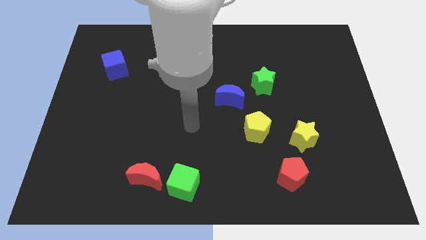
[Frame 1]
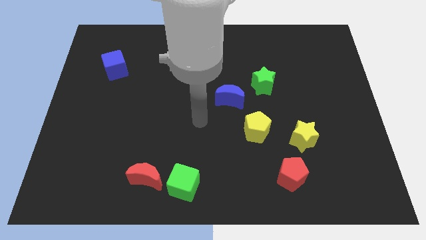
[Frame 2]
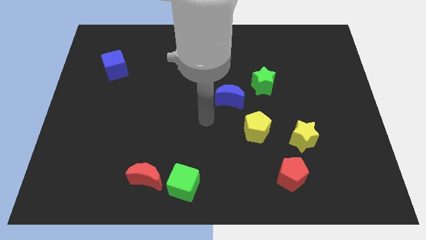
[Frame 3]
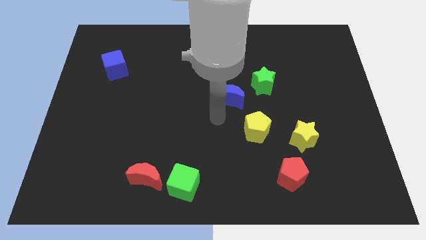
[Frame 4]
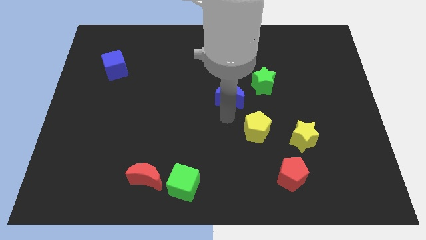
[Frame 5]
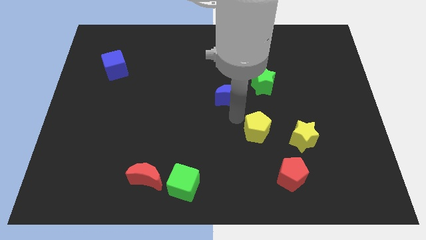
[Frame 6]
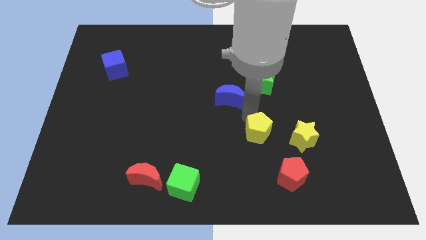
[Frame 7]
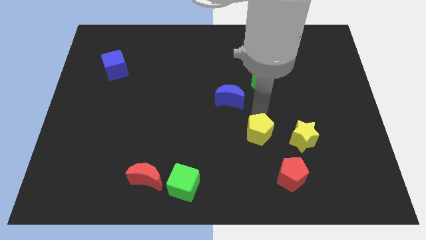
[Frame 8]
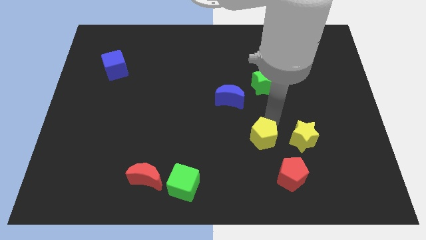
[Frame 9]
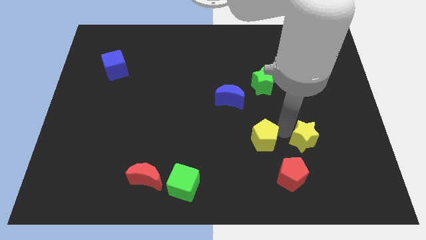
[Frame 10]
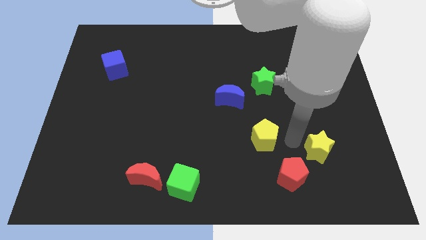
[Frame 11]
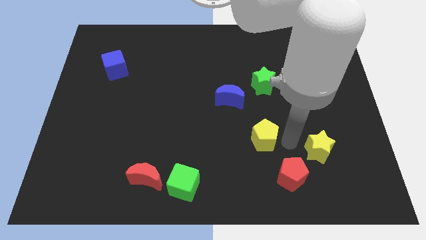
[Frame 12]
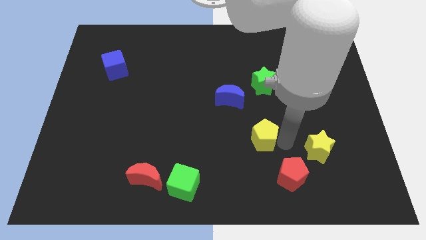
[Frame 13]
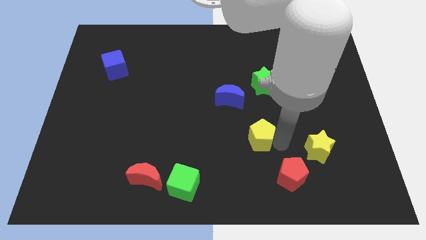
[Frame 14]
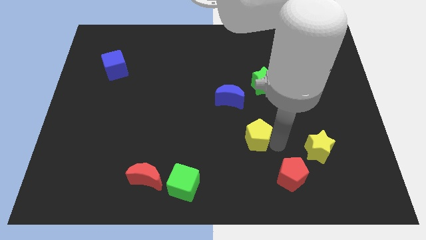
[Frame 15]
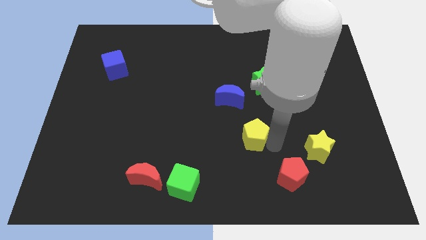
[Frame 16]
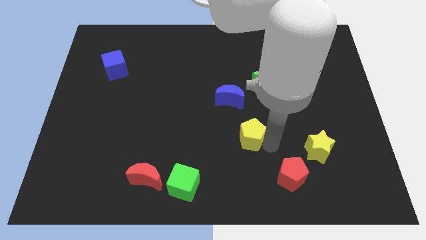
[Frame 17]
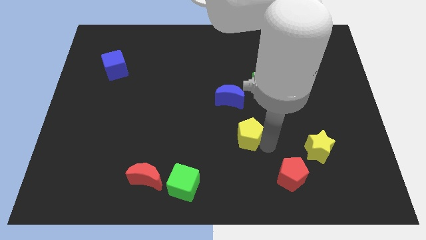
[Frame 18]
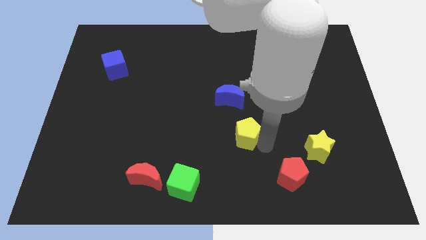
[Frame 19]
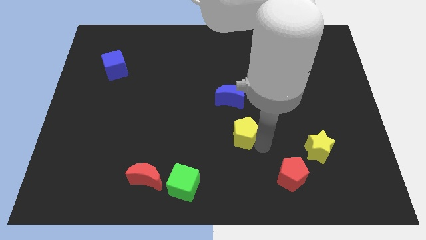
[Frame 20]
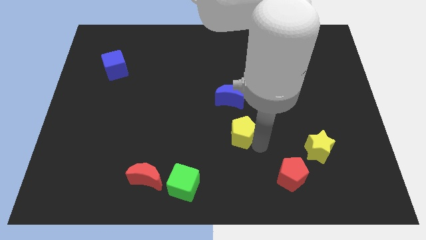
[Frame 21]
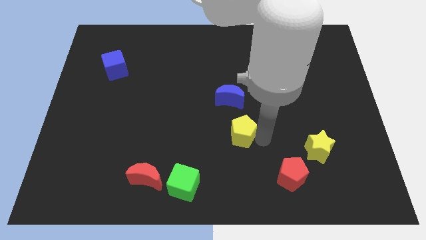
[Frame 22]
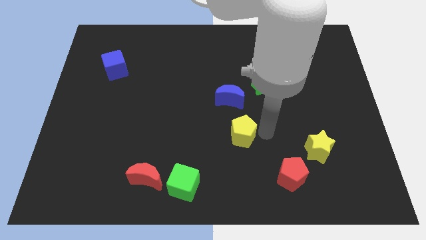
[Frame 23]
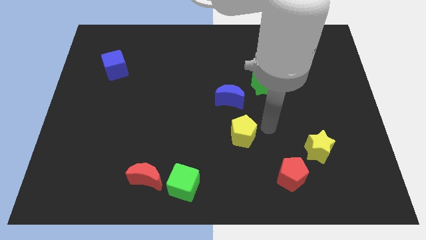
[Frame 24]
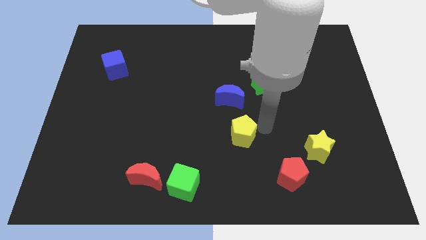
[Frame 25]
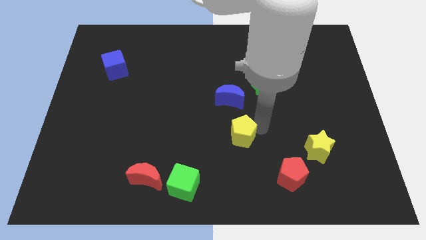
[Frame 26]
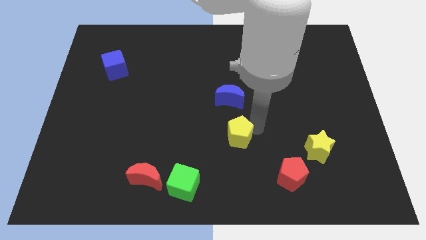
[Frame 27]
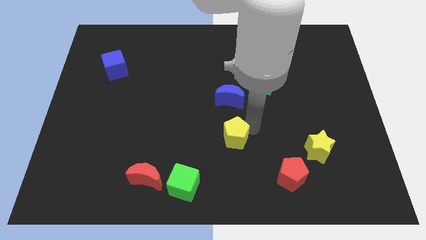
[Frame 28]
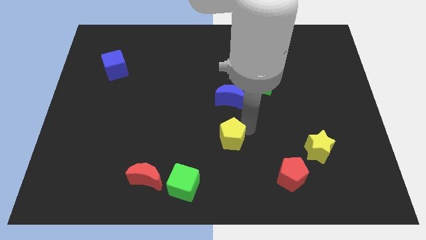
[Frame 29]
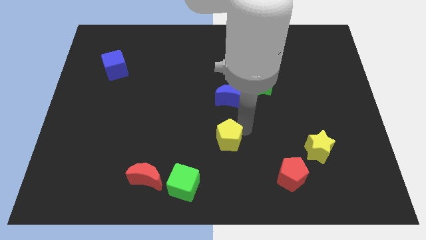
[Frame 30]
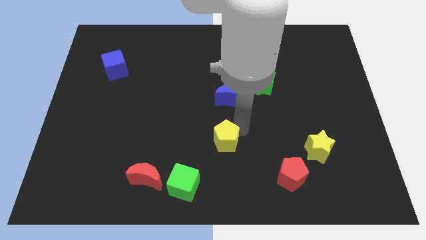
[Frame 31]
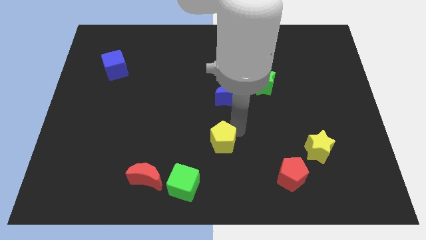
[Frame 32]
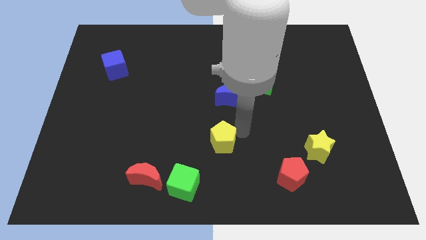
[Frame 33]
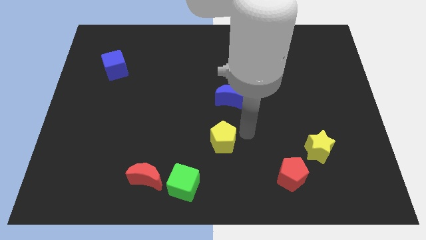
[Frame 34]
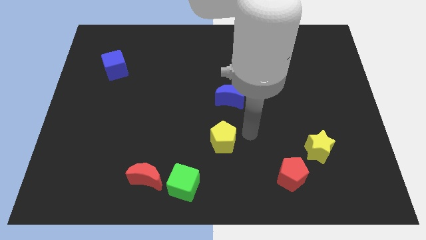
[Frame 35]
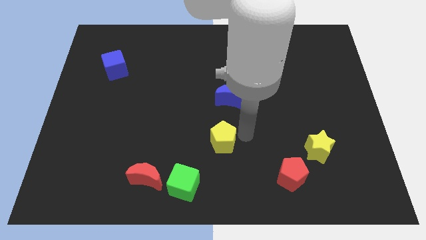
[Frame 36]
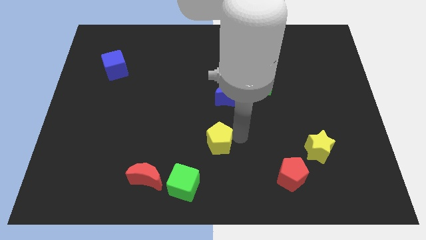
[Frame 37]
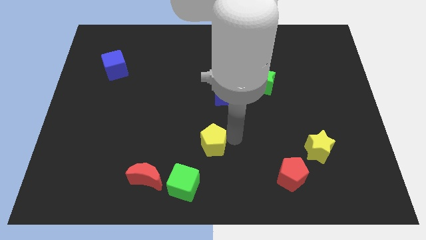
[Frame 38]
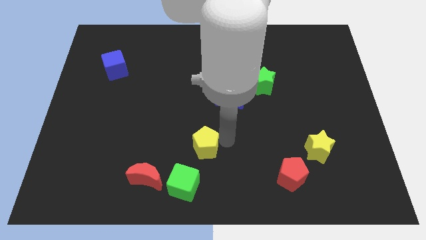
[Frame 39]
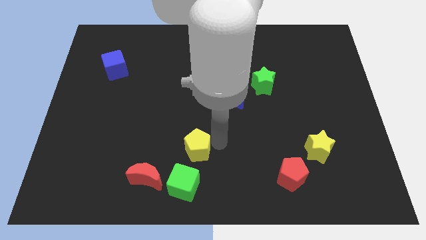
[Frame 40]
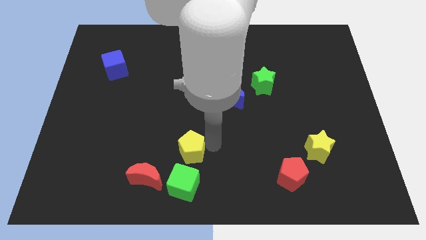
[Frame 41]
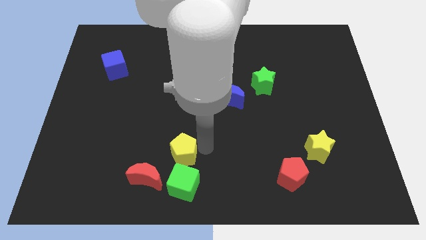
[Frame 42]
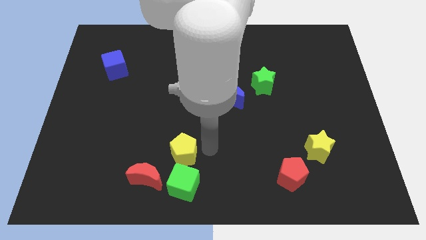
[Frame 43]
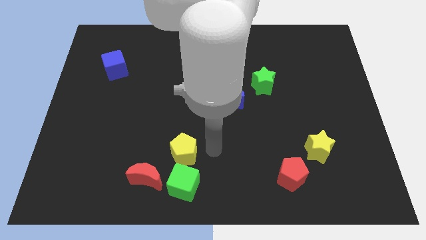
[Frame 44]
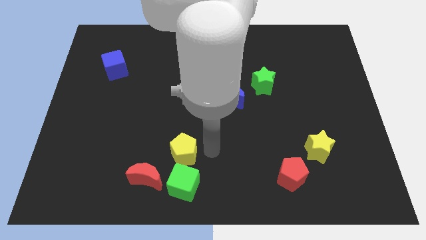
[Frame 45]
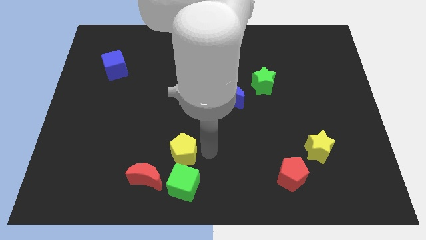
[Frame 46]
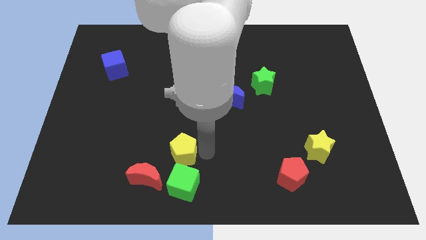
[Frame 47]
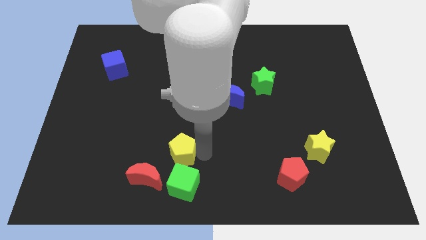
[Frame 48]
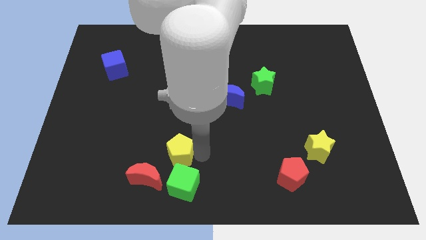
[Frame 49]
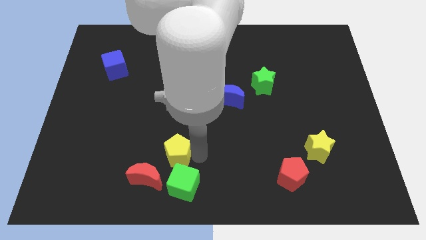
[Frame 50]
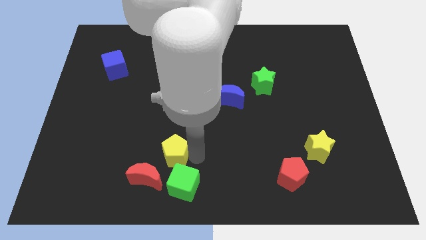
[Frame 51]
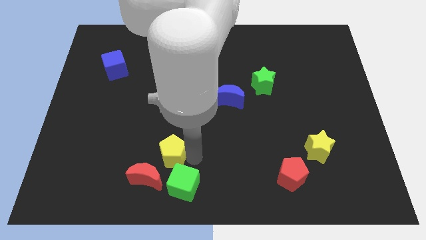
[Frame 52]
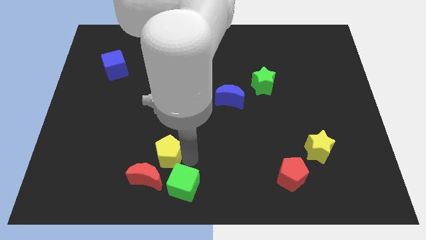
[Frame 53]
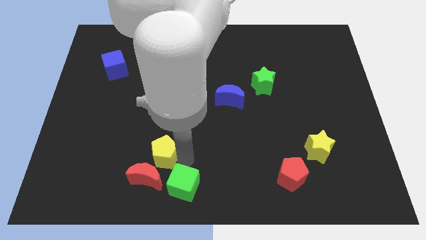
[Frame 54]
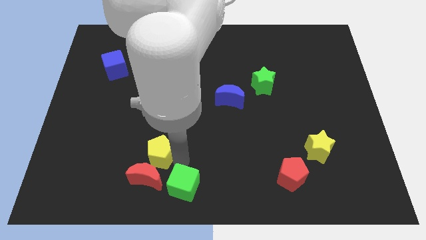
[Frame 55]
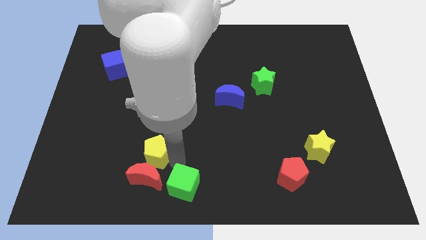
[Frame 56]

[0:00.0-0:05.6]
move the yellow pentagon to the top left of the red moon

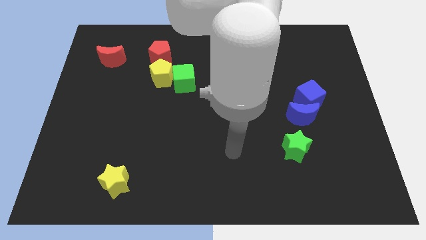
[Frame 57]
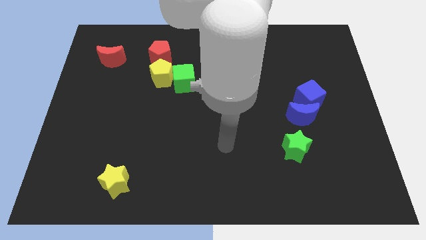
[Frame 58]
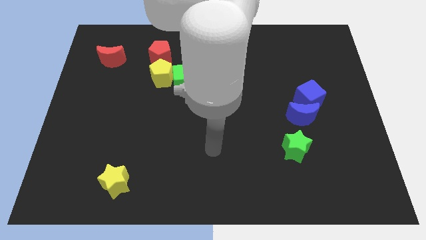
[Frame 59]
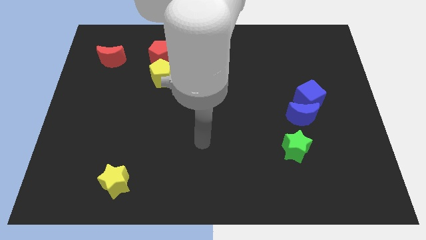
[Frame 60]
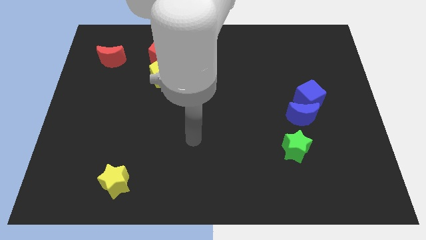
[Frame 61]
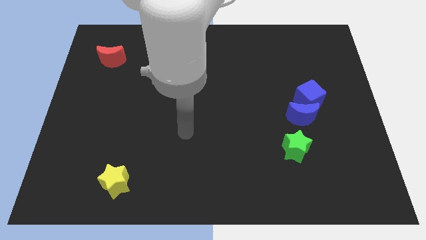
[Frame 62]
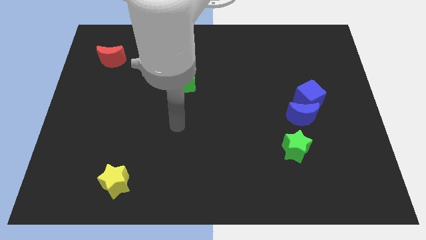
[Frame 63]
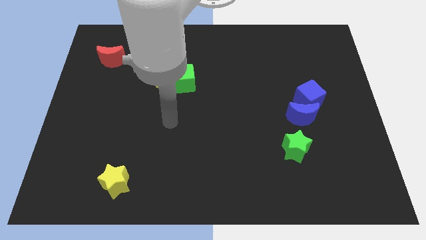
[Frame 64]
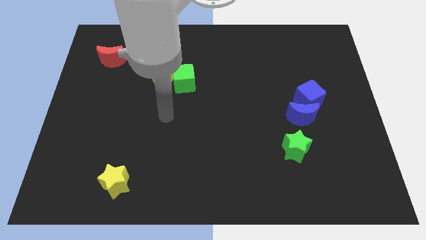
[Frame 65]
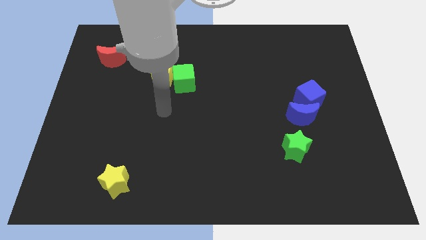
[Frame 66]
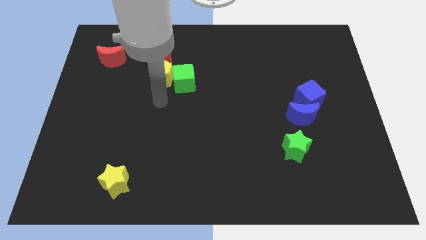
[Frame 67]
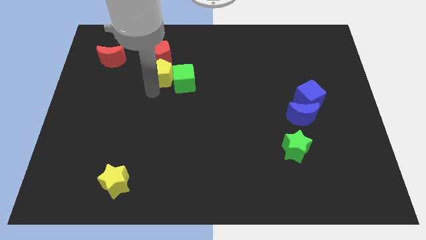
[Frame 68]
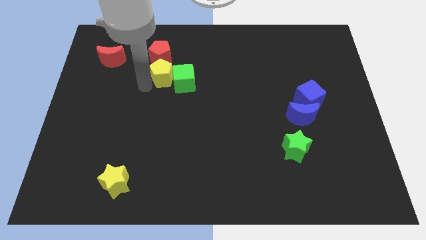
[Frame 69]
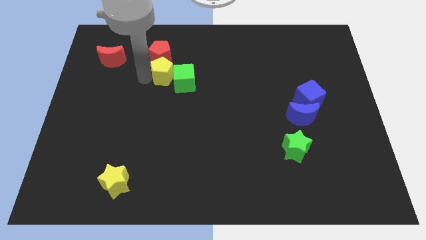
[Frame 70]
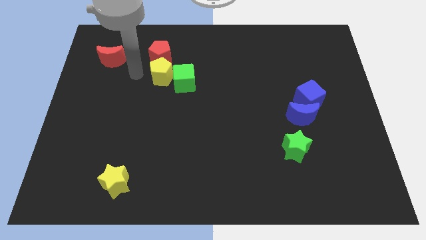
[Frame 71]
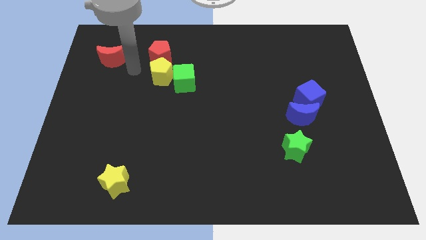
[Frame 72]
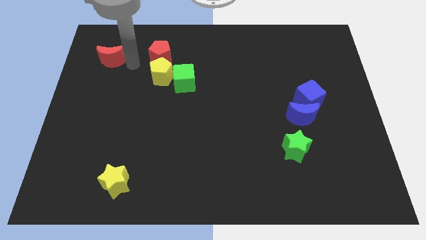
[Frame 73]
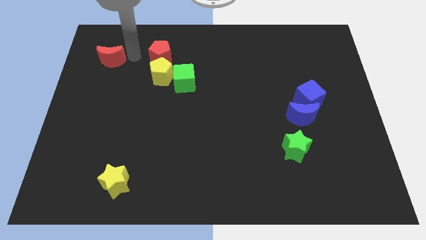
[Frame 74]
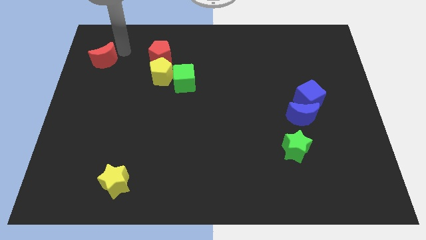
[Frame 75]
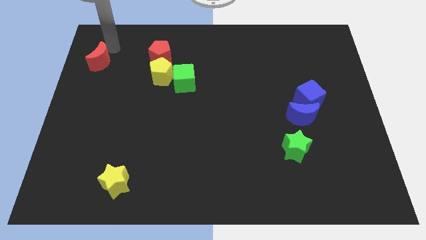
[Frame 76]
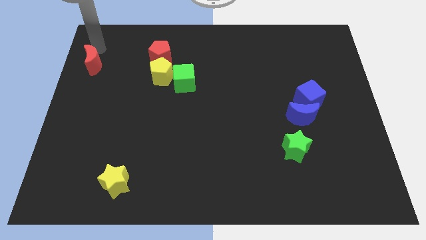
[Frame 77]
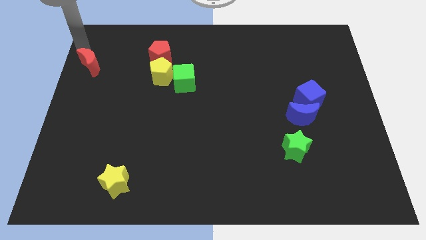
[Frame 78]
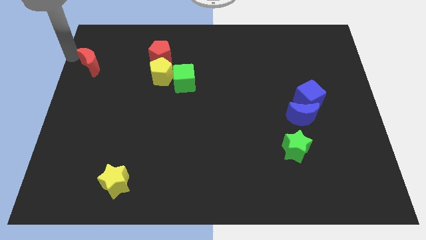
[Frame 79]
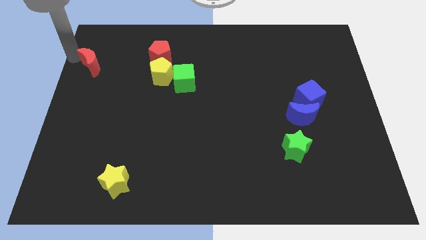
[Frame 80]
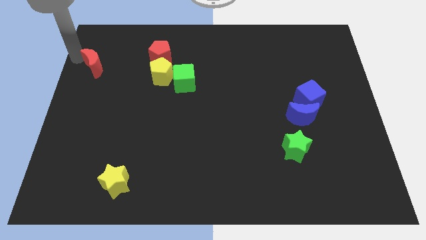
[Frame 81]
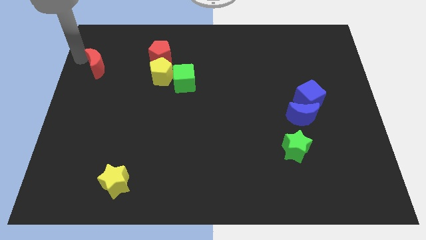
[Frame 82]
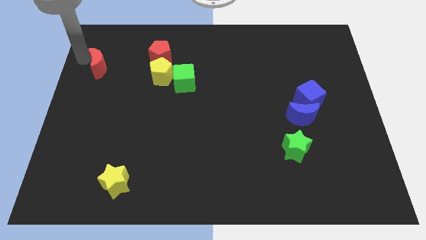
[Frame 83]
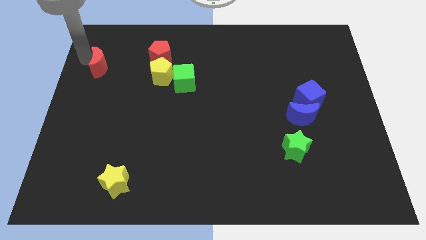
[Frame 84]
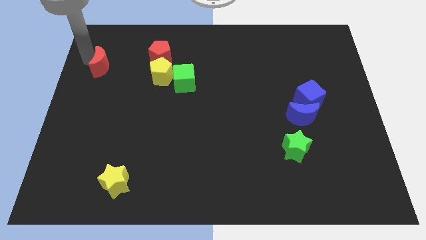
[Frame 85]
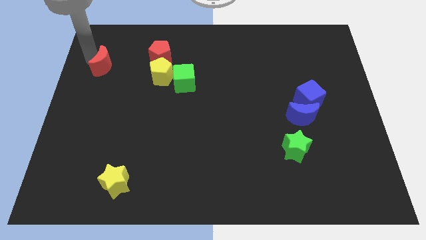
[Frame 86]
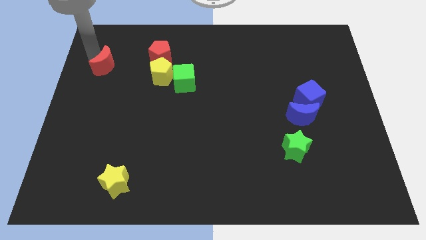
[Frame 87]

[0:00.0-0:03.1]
slide the red moon left of the yellow pentagon
